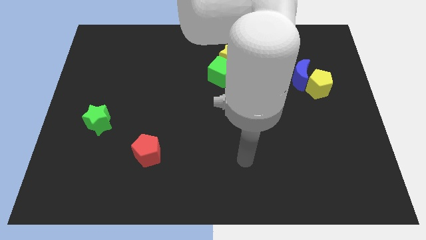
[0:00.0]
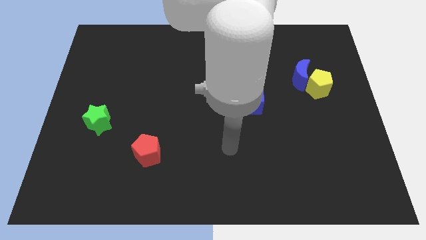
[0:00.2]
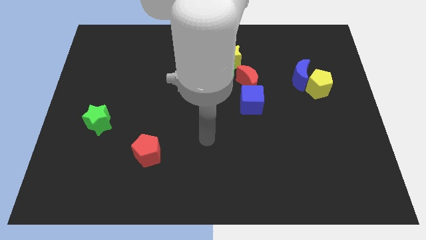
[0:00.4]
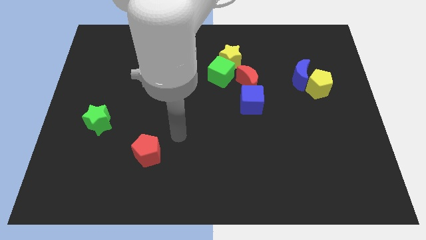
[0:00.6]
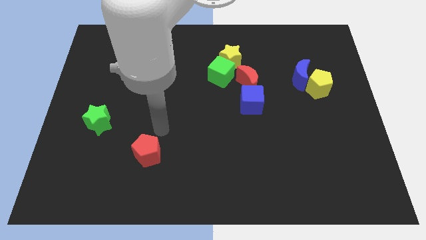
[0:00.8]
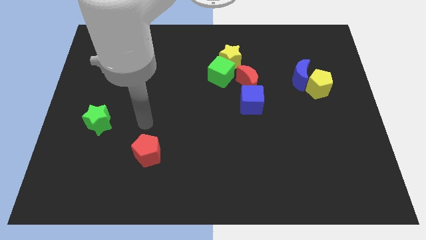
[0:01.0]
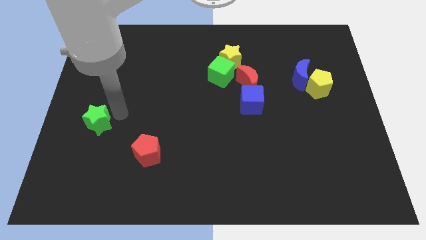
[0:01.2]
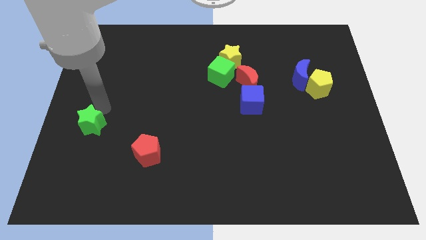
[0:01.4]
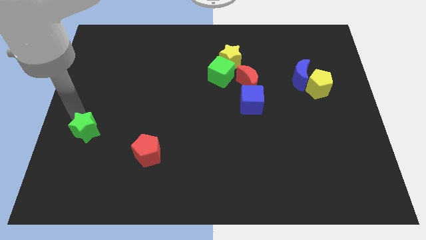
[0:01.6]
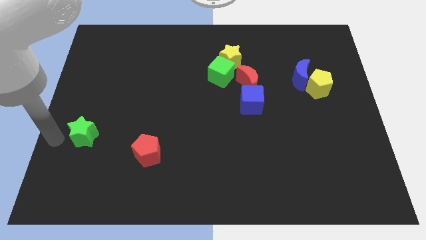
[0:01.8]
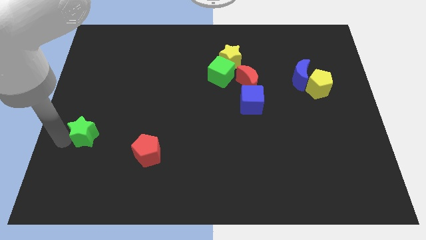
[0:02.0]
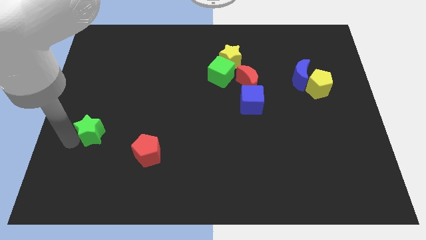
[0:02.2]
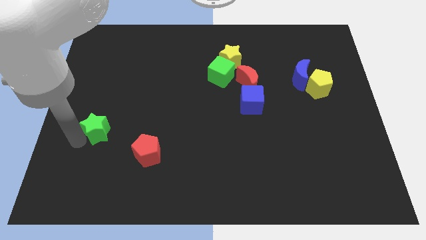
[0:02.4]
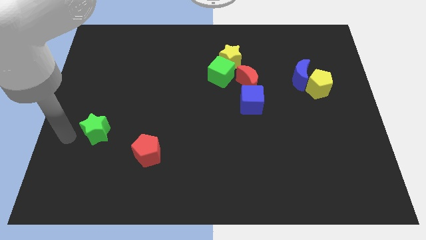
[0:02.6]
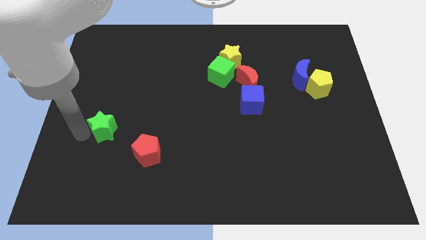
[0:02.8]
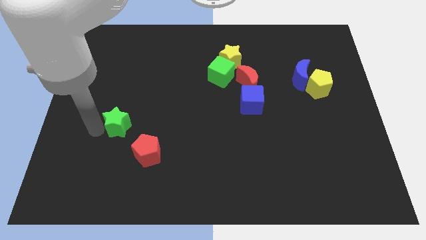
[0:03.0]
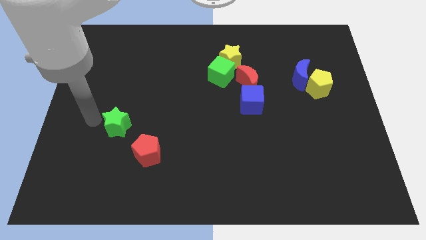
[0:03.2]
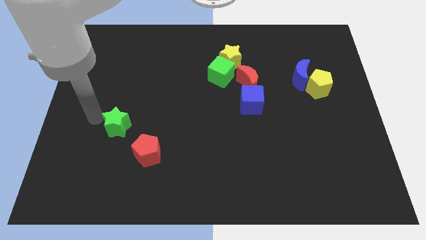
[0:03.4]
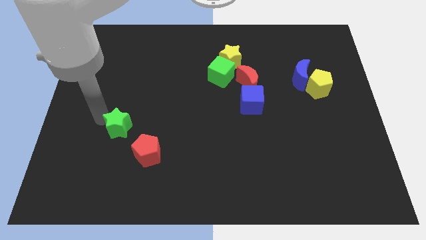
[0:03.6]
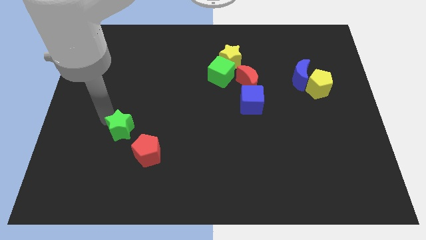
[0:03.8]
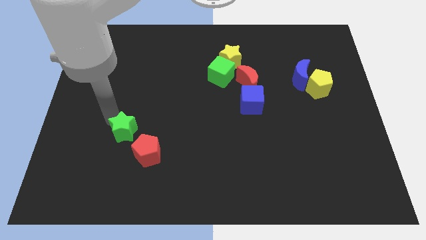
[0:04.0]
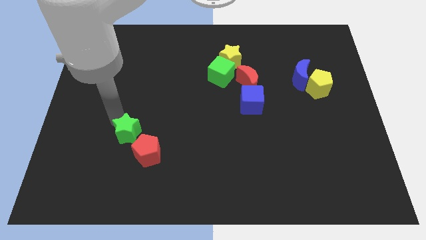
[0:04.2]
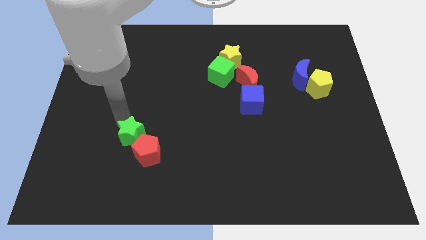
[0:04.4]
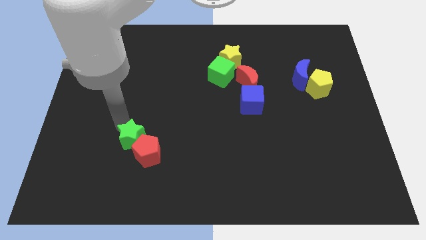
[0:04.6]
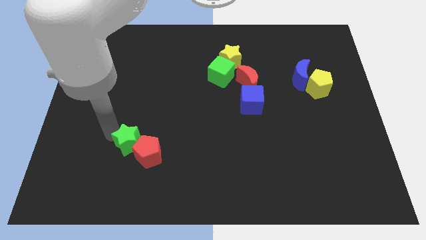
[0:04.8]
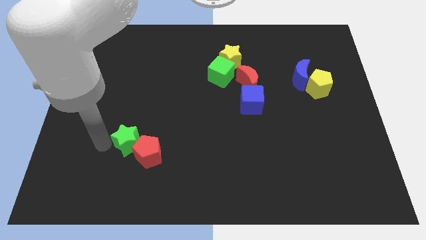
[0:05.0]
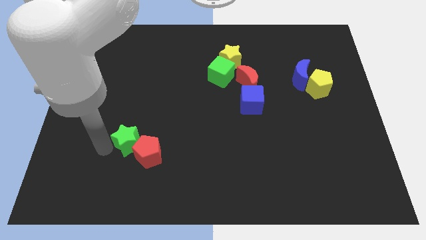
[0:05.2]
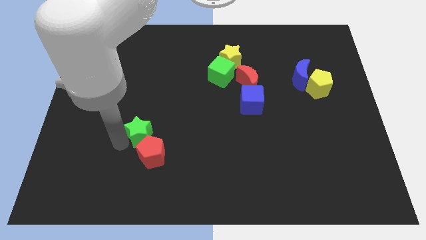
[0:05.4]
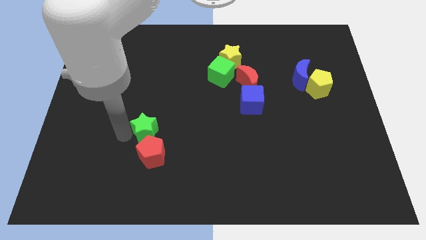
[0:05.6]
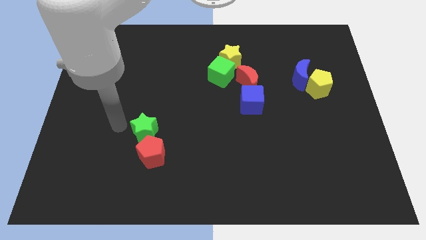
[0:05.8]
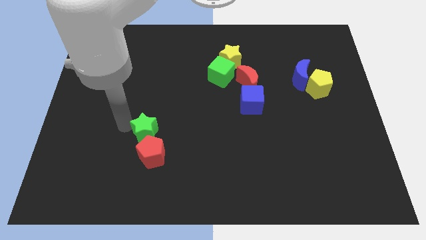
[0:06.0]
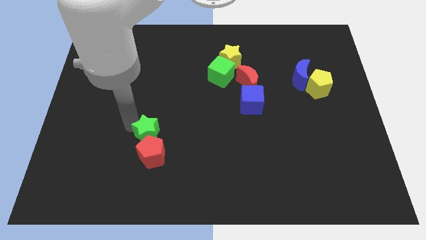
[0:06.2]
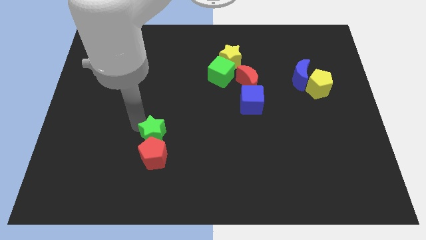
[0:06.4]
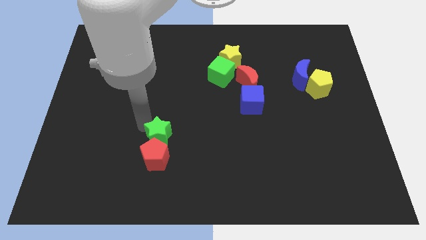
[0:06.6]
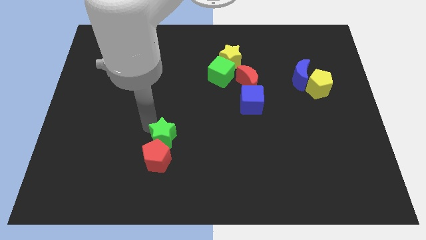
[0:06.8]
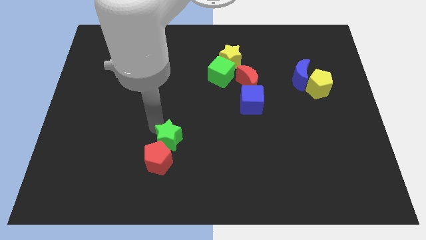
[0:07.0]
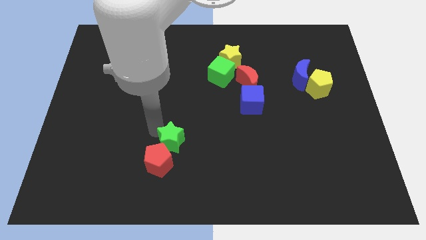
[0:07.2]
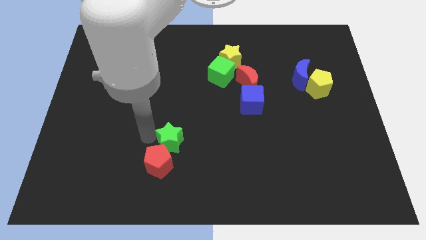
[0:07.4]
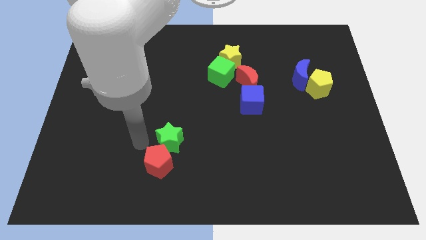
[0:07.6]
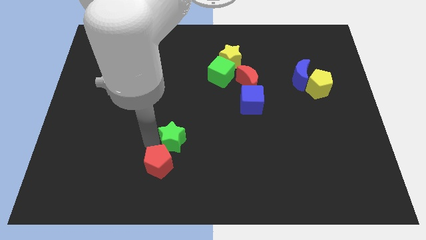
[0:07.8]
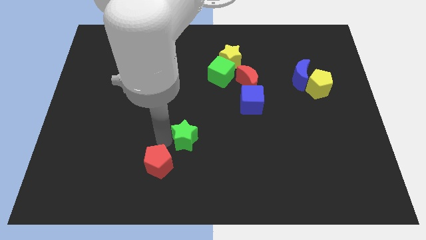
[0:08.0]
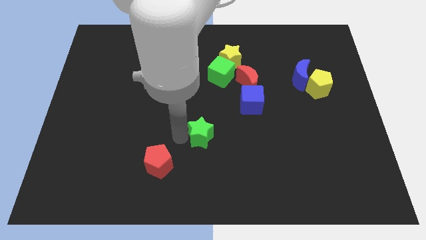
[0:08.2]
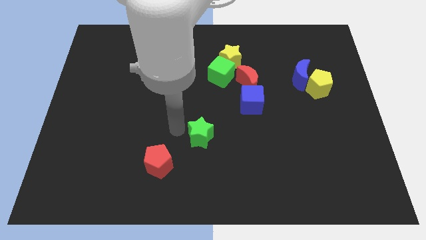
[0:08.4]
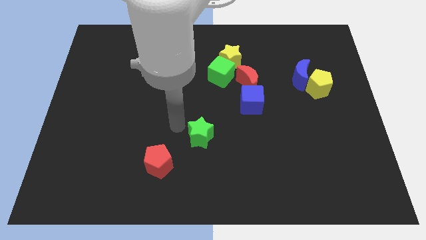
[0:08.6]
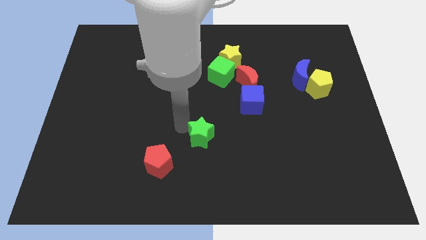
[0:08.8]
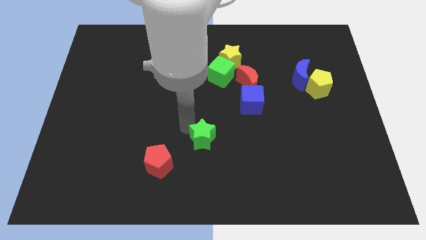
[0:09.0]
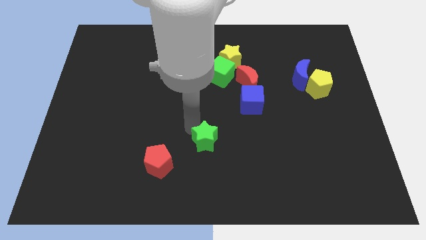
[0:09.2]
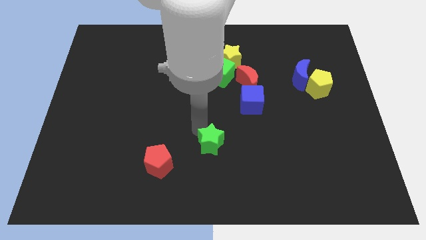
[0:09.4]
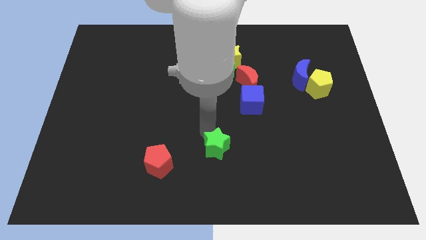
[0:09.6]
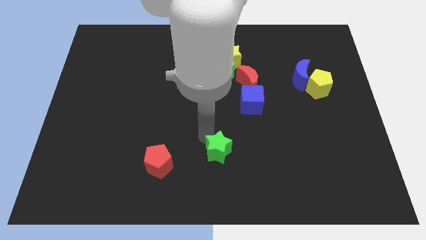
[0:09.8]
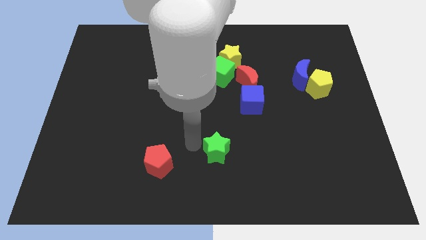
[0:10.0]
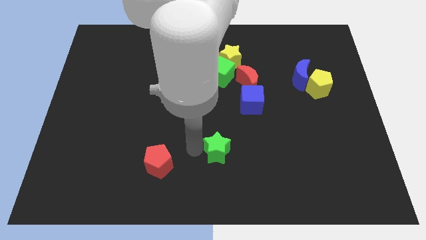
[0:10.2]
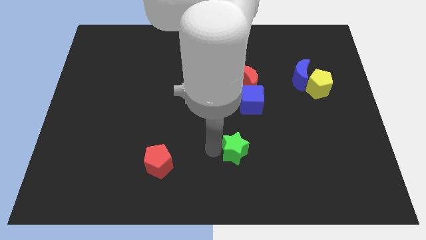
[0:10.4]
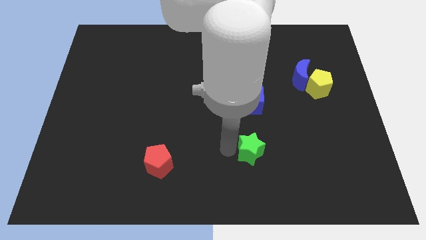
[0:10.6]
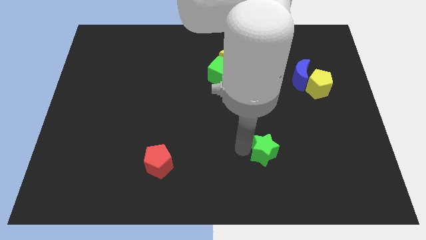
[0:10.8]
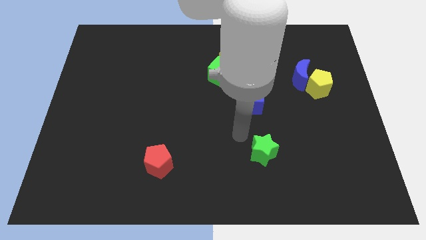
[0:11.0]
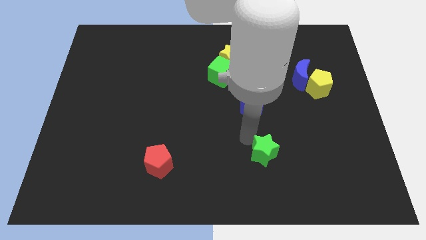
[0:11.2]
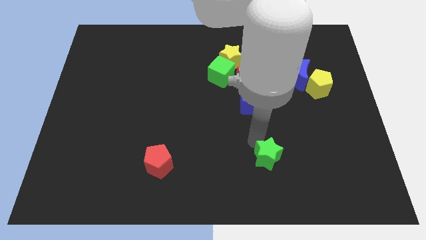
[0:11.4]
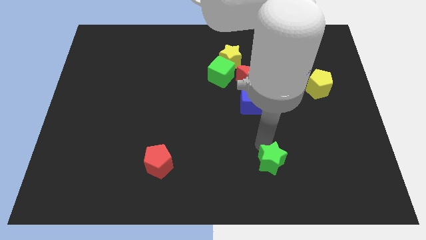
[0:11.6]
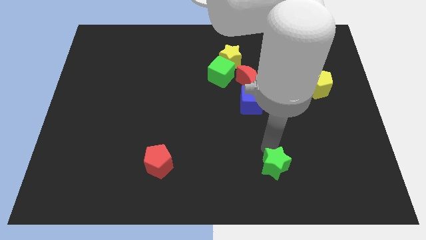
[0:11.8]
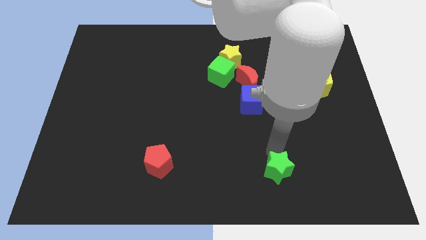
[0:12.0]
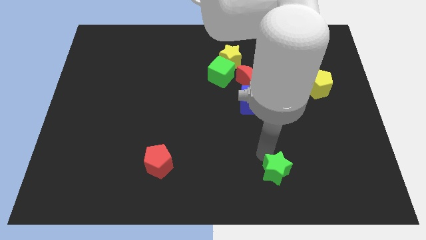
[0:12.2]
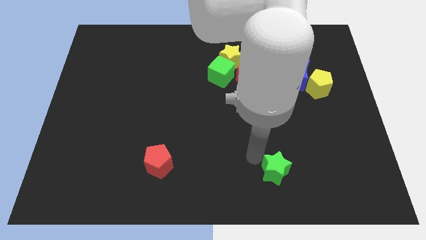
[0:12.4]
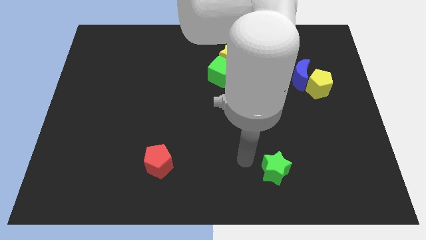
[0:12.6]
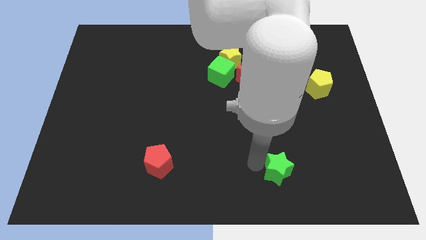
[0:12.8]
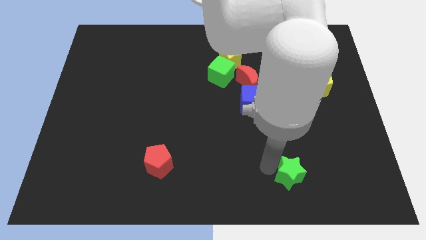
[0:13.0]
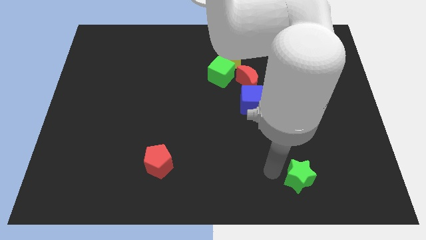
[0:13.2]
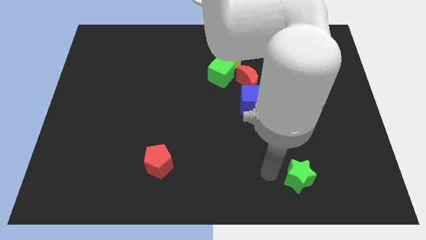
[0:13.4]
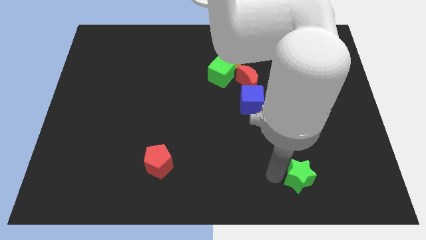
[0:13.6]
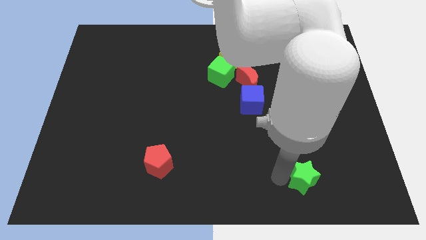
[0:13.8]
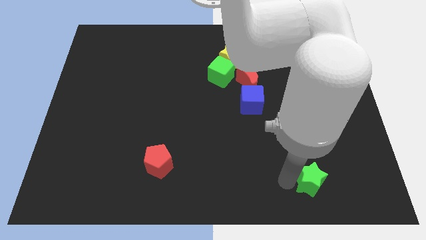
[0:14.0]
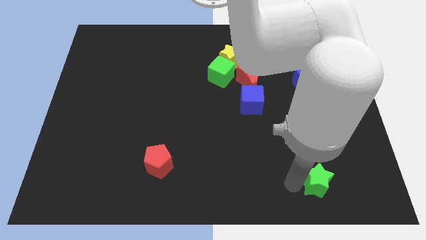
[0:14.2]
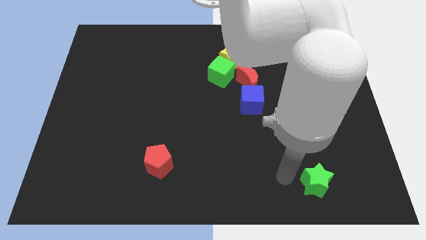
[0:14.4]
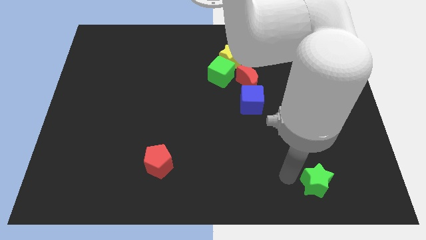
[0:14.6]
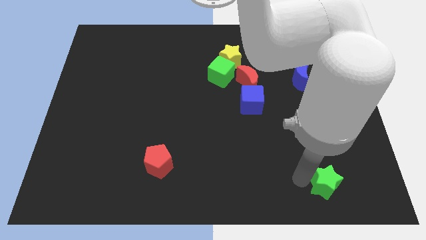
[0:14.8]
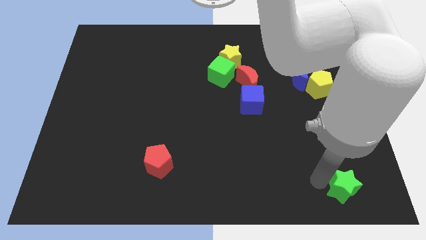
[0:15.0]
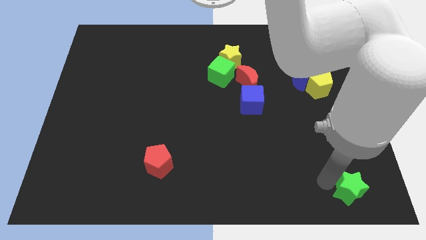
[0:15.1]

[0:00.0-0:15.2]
slide the green star to the bottom right

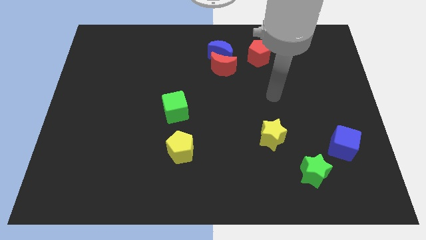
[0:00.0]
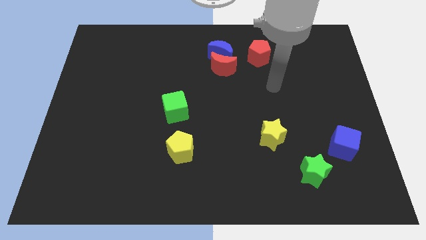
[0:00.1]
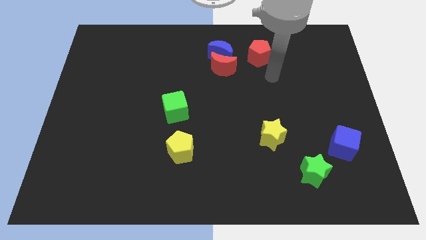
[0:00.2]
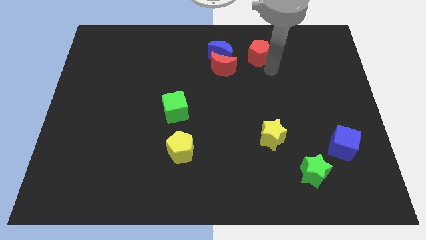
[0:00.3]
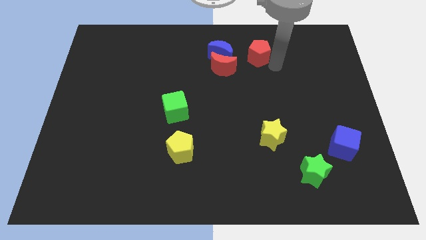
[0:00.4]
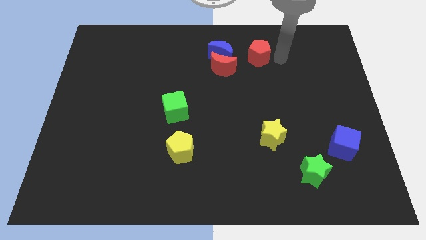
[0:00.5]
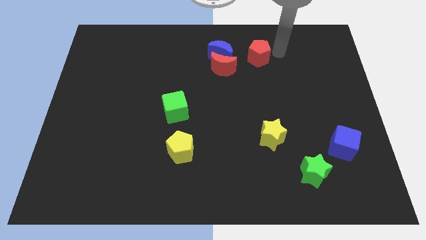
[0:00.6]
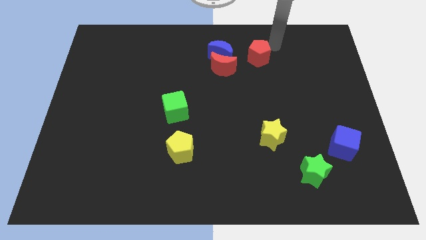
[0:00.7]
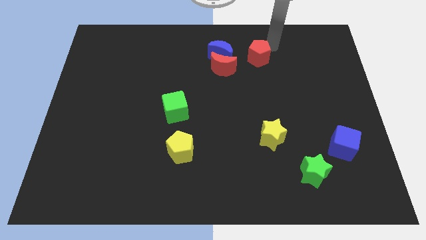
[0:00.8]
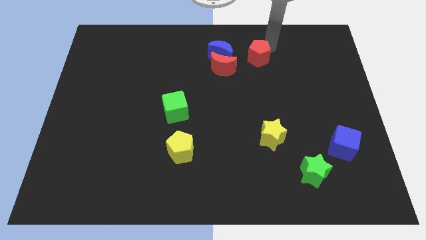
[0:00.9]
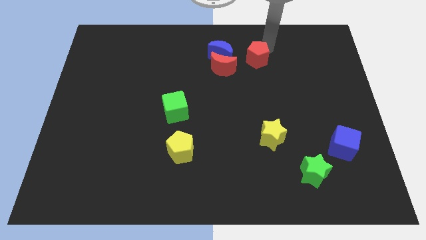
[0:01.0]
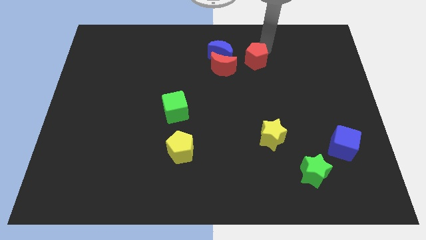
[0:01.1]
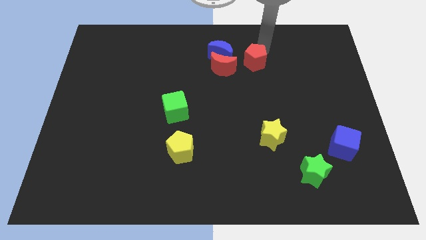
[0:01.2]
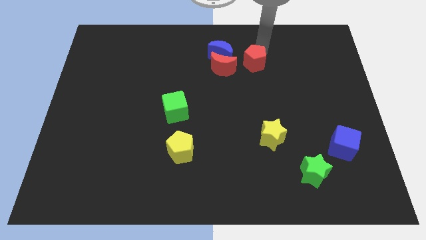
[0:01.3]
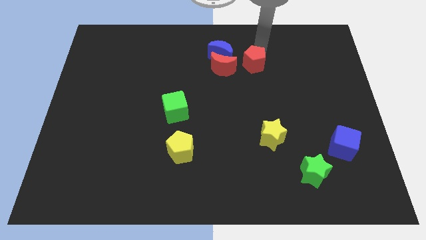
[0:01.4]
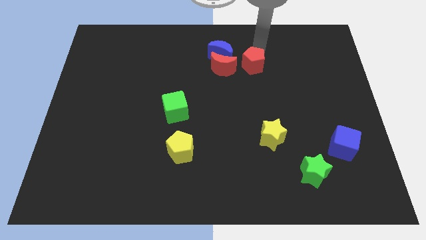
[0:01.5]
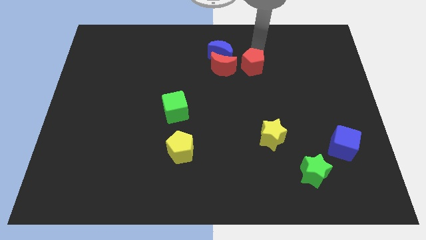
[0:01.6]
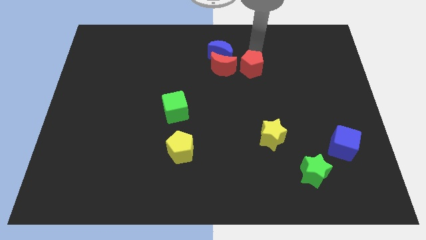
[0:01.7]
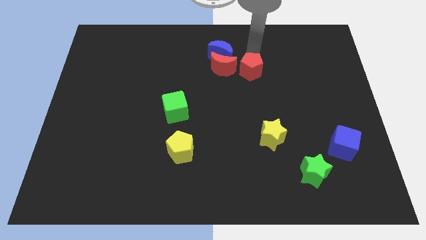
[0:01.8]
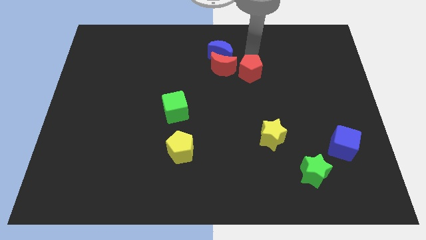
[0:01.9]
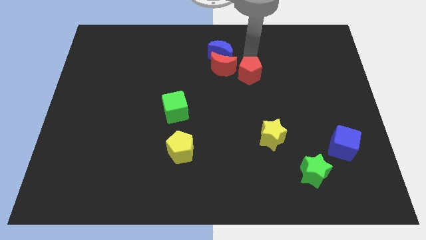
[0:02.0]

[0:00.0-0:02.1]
slide the red pentagon to the middle
